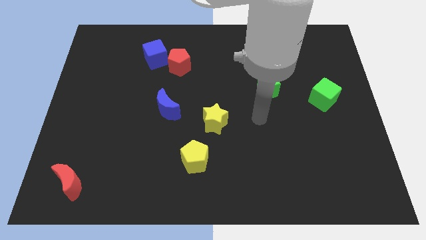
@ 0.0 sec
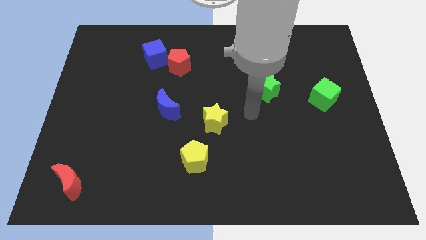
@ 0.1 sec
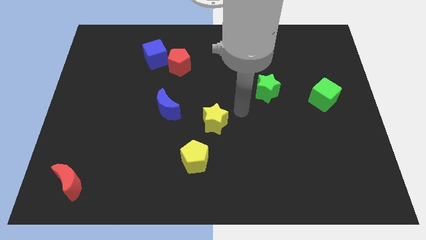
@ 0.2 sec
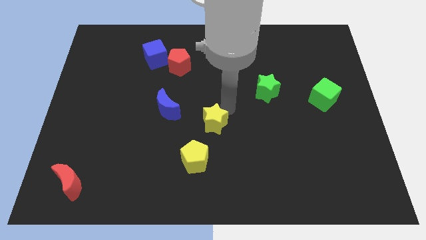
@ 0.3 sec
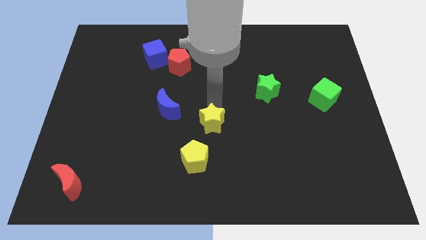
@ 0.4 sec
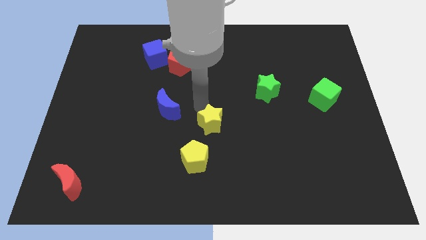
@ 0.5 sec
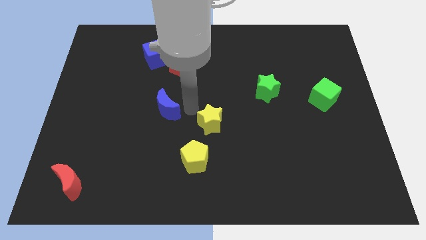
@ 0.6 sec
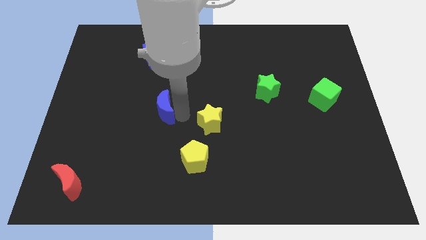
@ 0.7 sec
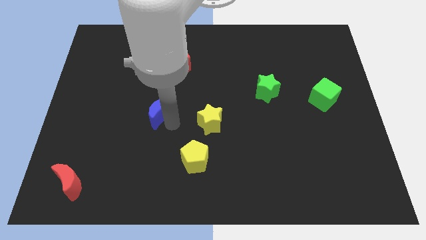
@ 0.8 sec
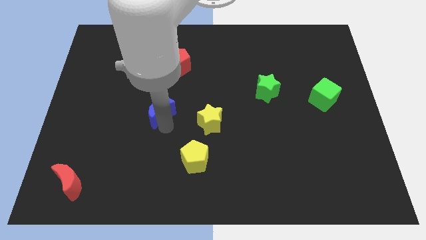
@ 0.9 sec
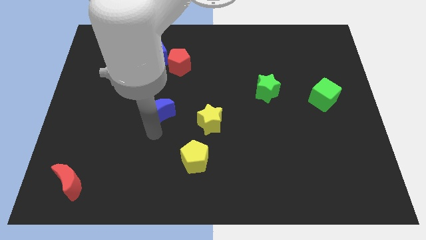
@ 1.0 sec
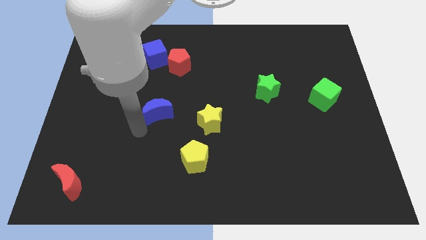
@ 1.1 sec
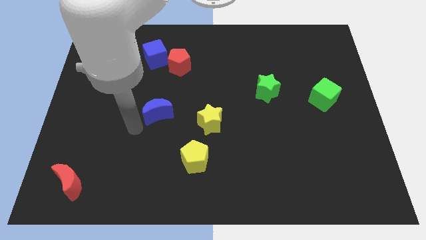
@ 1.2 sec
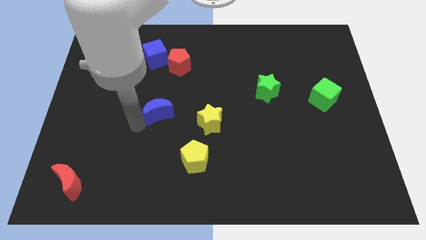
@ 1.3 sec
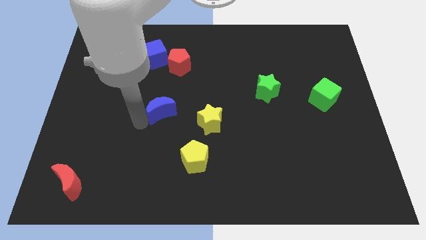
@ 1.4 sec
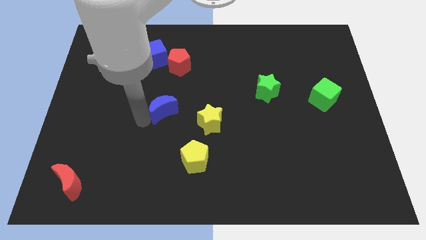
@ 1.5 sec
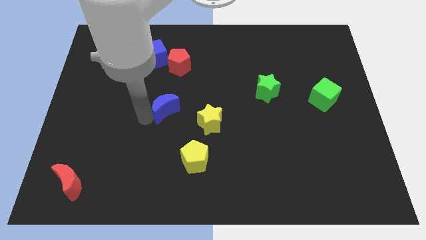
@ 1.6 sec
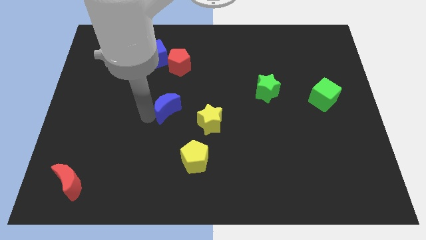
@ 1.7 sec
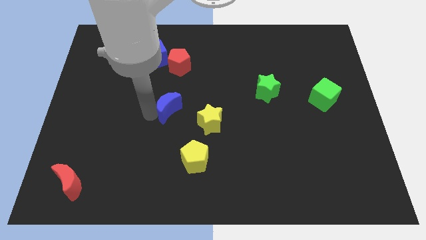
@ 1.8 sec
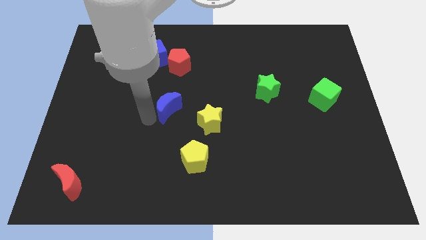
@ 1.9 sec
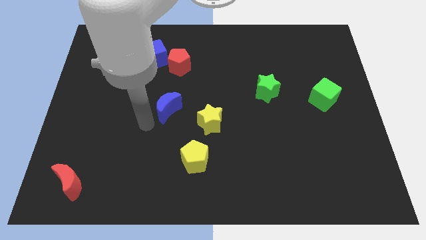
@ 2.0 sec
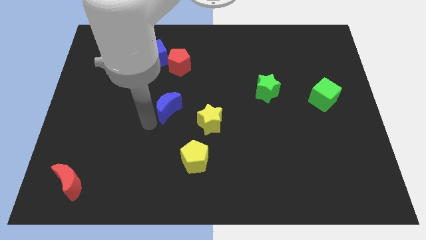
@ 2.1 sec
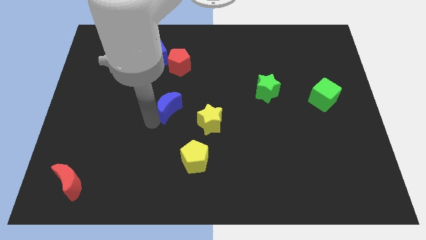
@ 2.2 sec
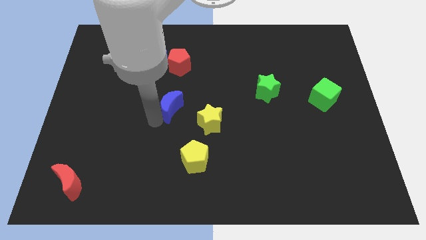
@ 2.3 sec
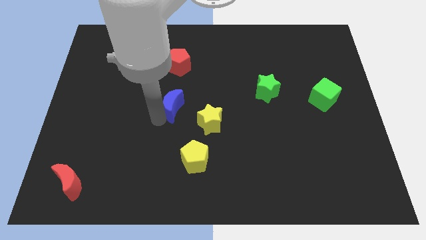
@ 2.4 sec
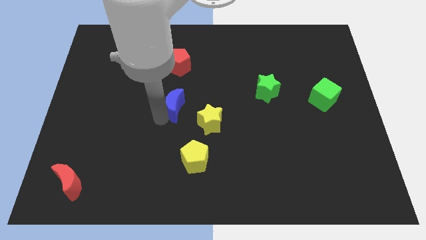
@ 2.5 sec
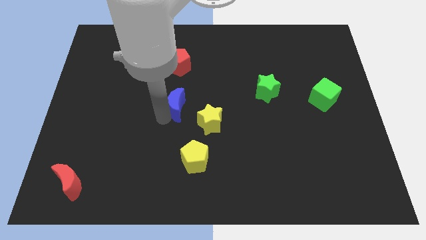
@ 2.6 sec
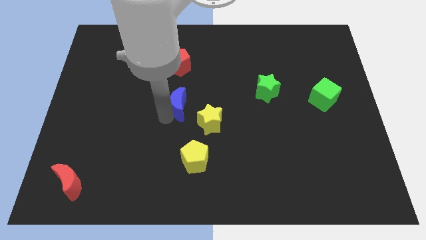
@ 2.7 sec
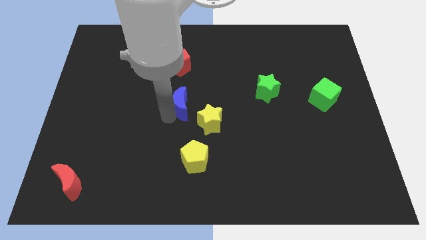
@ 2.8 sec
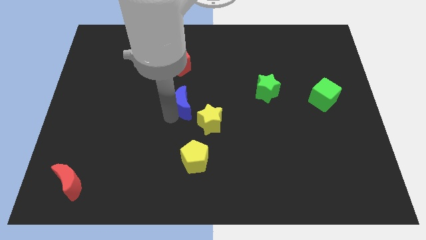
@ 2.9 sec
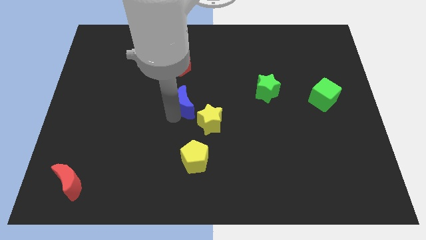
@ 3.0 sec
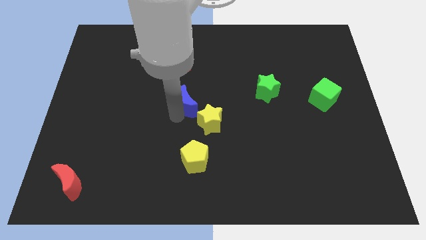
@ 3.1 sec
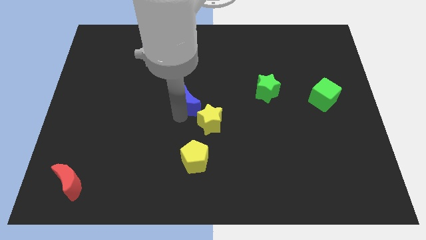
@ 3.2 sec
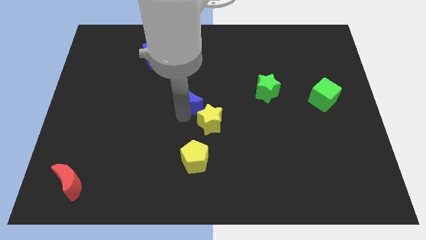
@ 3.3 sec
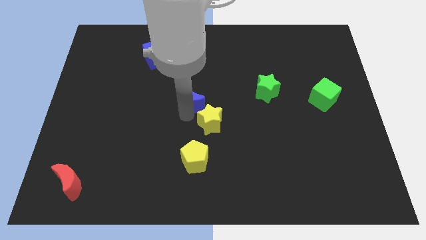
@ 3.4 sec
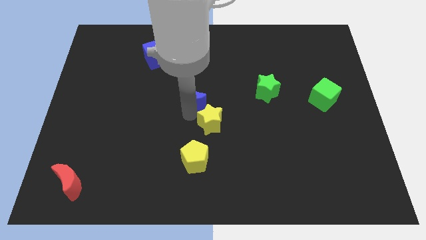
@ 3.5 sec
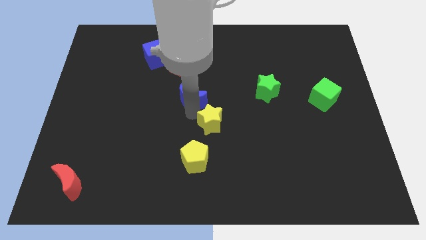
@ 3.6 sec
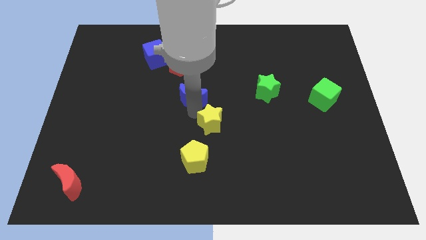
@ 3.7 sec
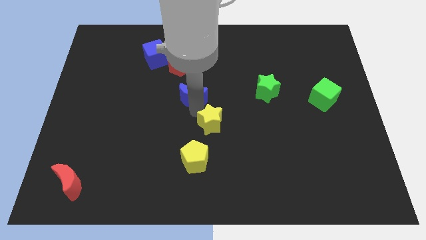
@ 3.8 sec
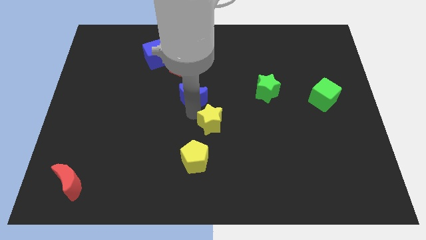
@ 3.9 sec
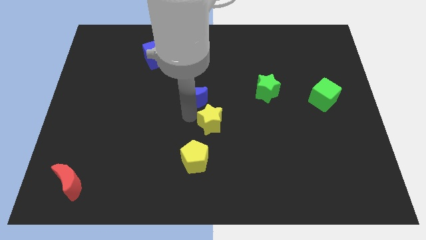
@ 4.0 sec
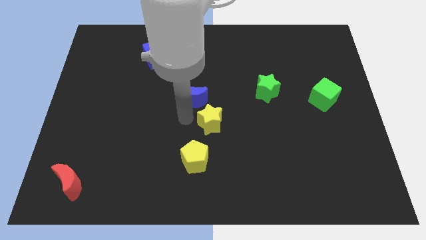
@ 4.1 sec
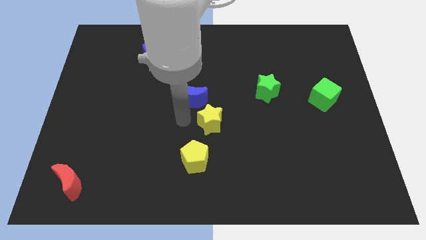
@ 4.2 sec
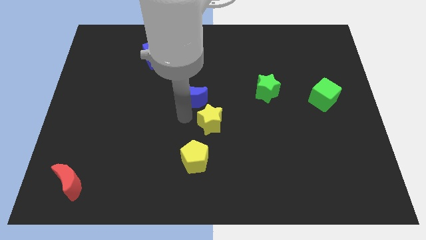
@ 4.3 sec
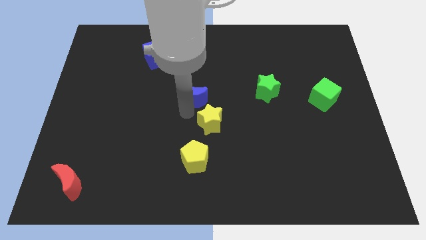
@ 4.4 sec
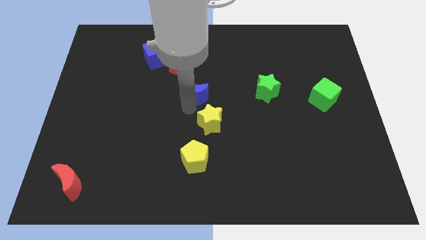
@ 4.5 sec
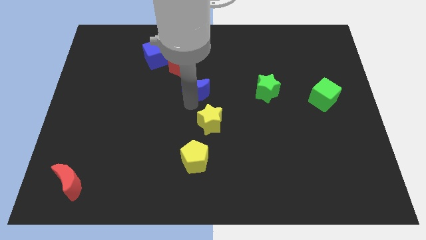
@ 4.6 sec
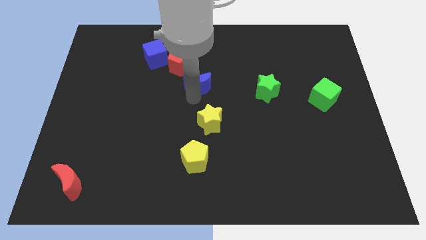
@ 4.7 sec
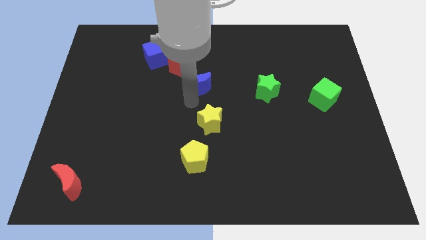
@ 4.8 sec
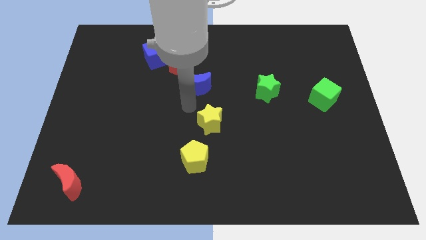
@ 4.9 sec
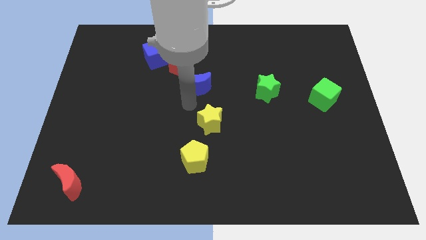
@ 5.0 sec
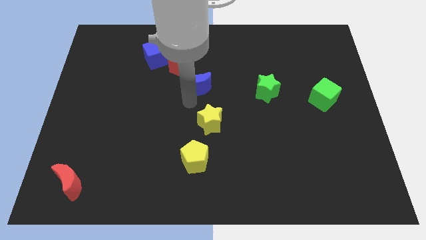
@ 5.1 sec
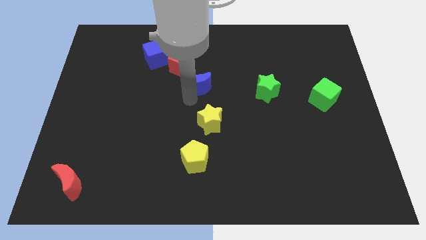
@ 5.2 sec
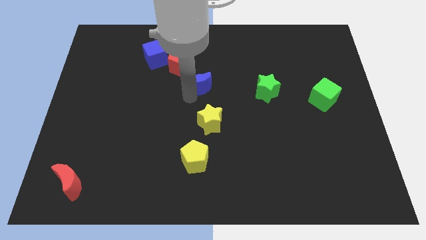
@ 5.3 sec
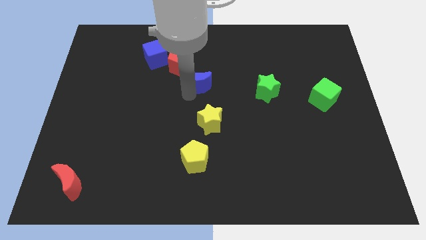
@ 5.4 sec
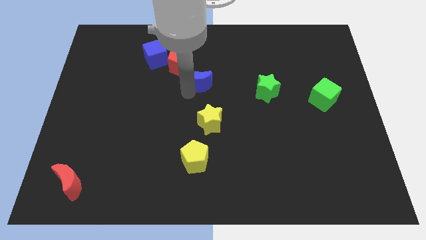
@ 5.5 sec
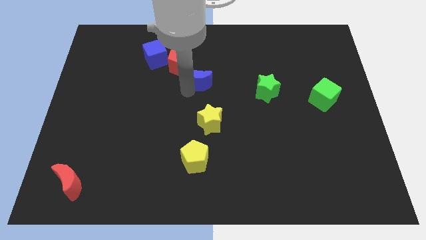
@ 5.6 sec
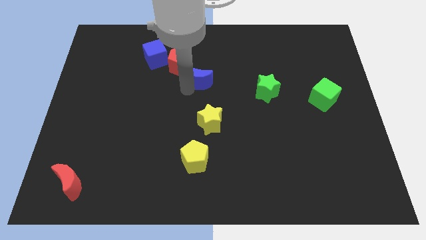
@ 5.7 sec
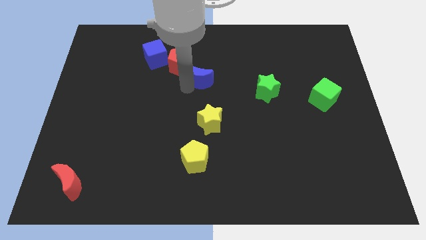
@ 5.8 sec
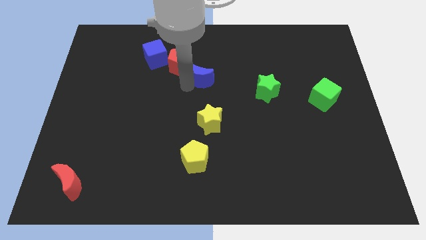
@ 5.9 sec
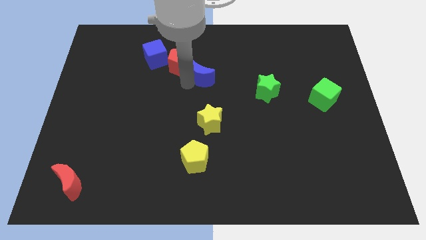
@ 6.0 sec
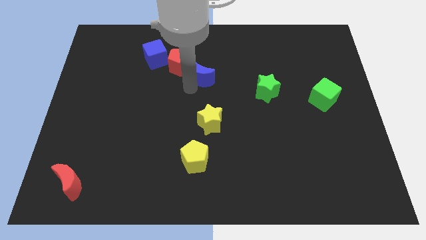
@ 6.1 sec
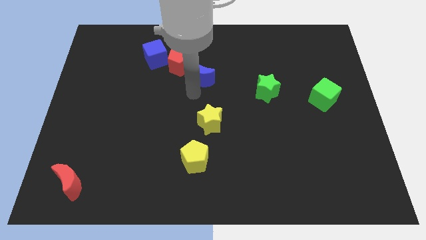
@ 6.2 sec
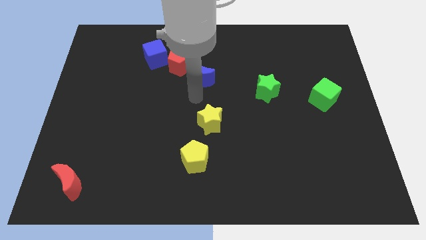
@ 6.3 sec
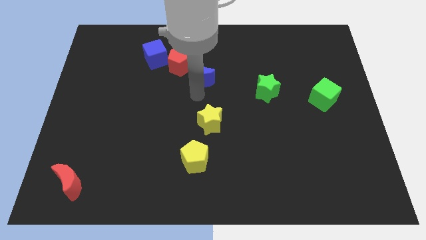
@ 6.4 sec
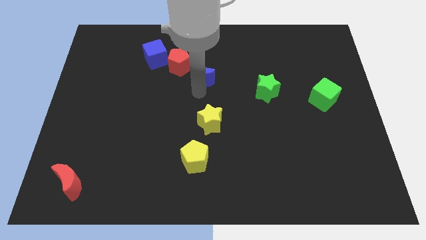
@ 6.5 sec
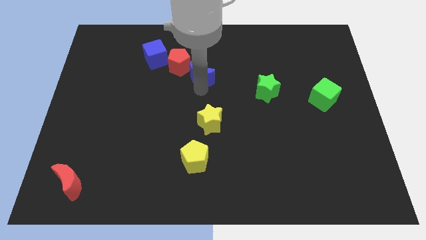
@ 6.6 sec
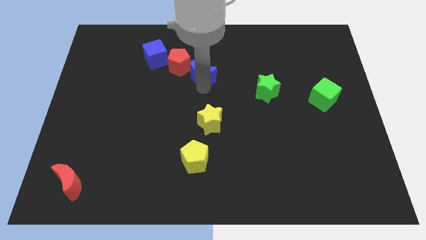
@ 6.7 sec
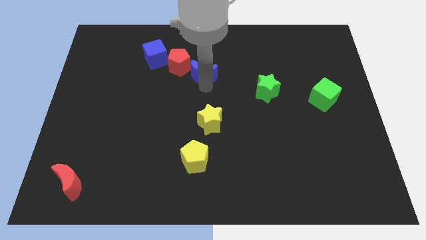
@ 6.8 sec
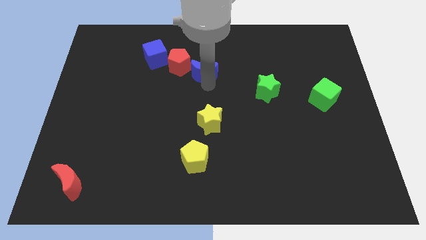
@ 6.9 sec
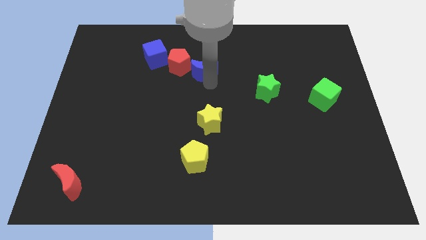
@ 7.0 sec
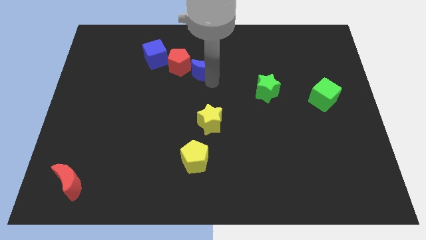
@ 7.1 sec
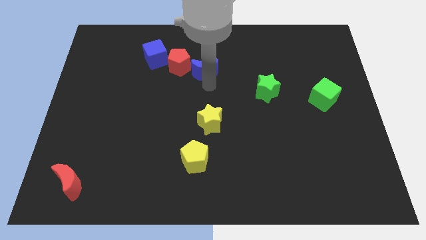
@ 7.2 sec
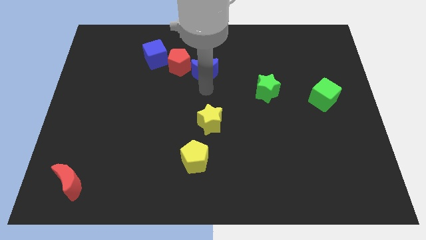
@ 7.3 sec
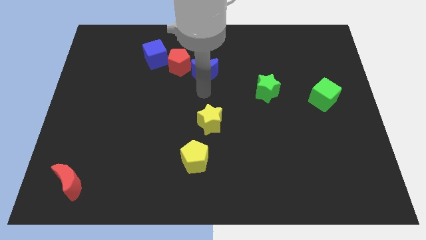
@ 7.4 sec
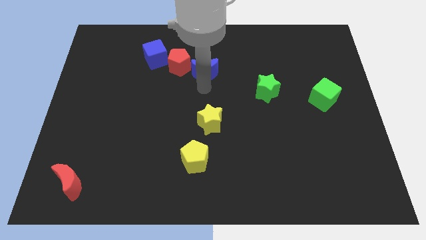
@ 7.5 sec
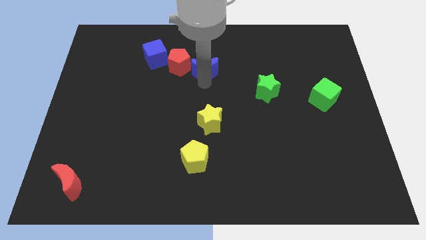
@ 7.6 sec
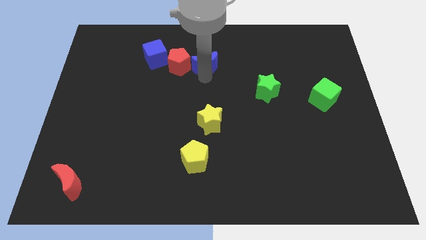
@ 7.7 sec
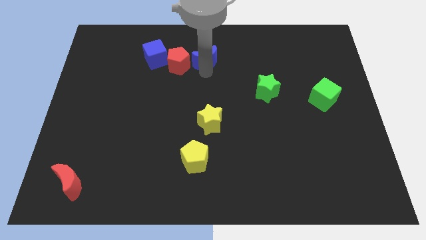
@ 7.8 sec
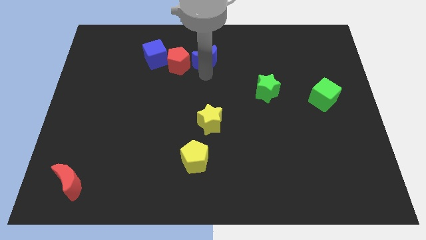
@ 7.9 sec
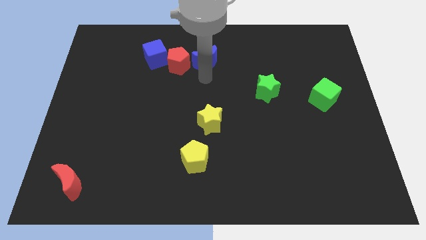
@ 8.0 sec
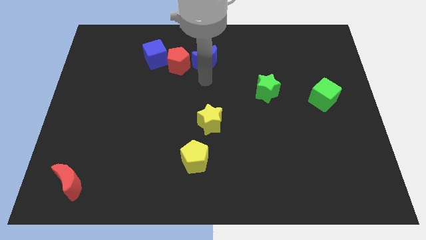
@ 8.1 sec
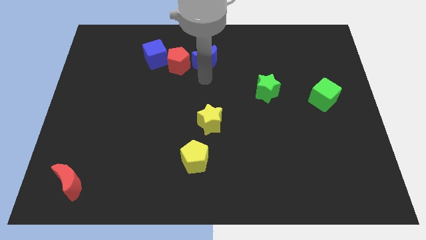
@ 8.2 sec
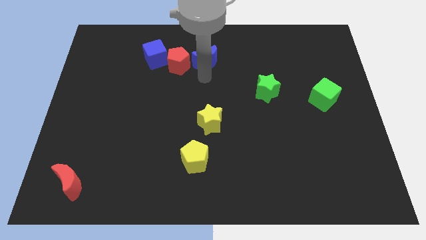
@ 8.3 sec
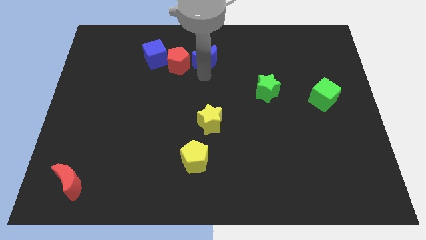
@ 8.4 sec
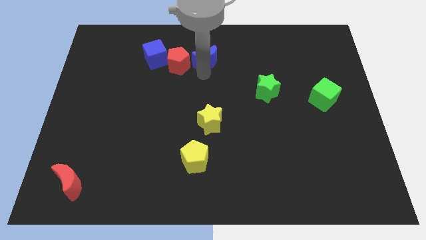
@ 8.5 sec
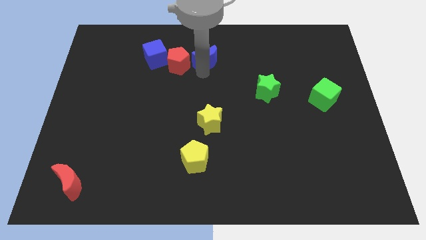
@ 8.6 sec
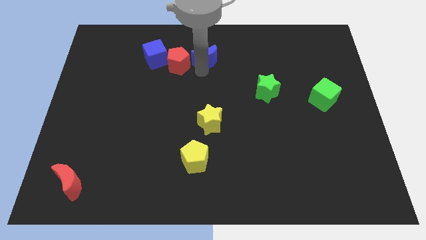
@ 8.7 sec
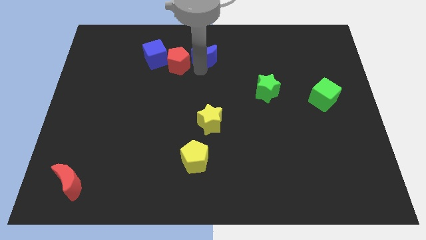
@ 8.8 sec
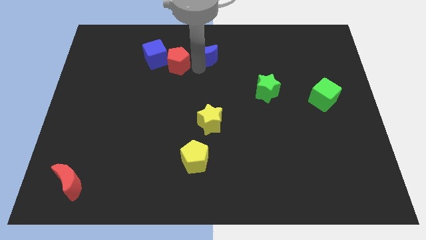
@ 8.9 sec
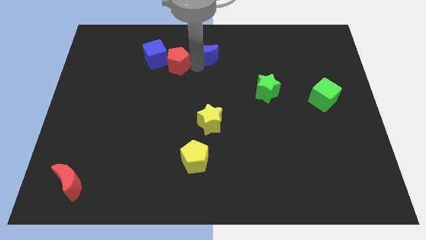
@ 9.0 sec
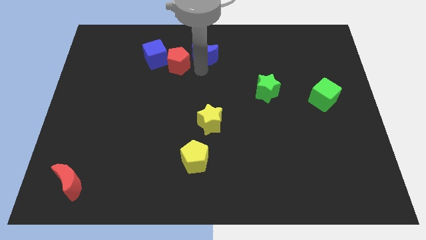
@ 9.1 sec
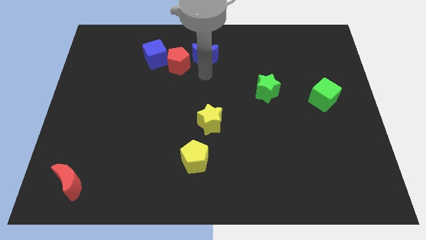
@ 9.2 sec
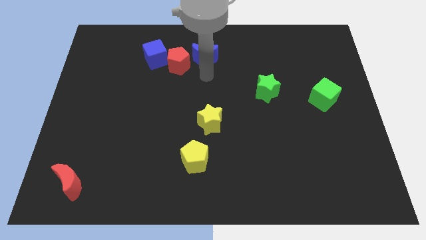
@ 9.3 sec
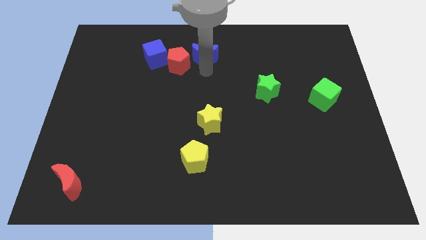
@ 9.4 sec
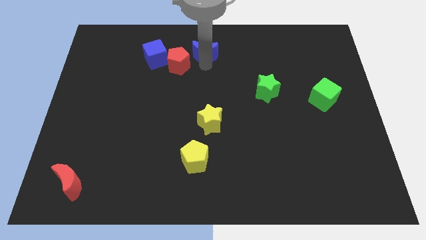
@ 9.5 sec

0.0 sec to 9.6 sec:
slide the blue moon to the top side
